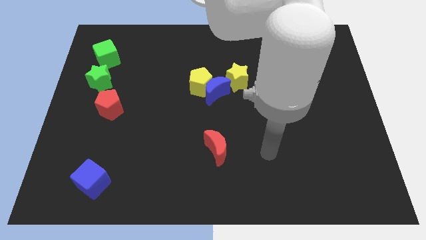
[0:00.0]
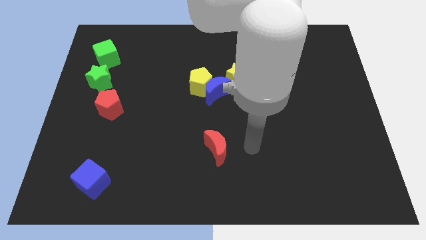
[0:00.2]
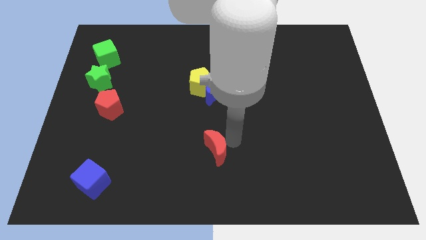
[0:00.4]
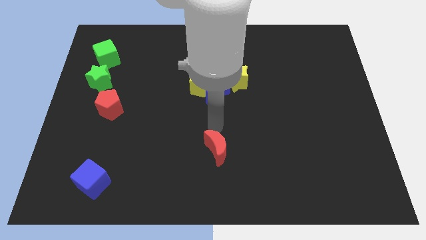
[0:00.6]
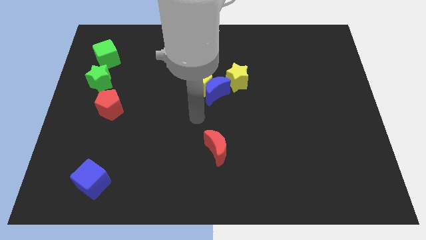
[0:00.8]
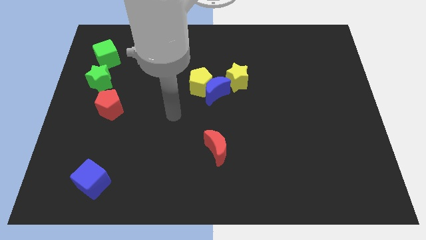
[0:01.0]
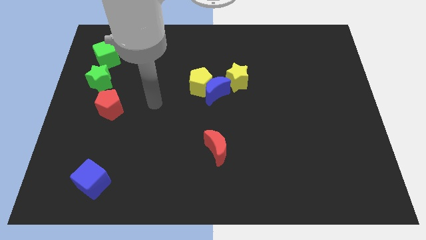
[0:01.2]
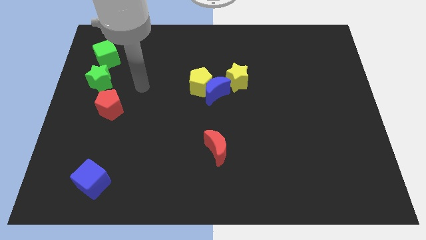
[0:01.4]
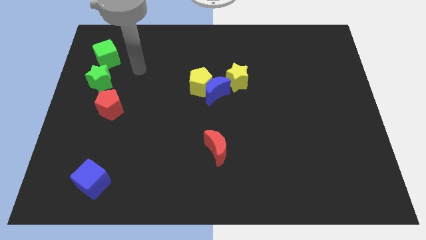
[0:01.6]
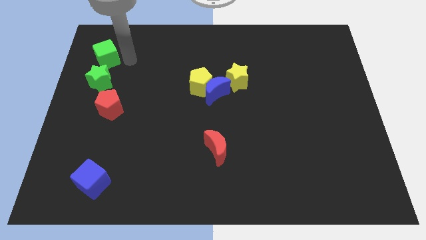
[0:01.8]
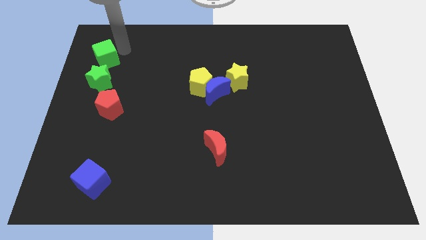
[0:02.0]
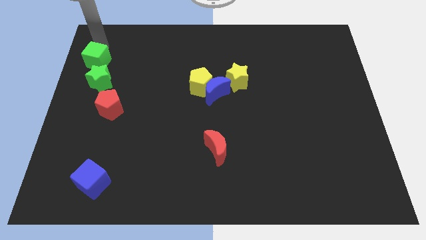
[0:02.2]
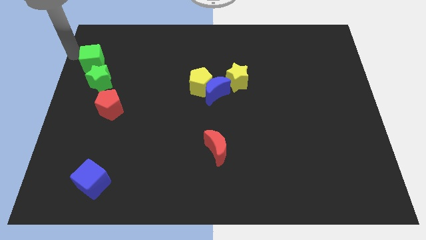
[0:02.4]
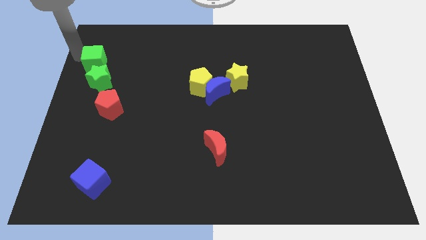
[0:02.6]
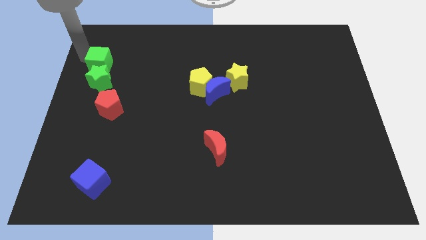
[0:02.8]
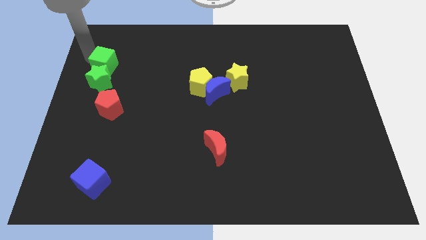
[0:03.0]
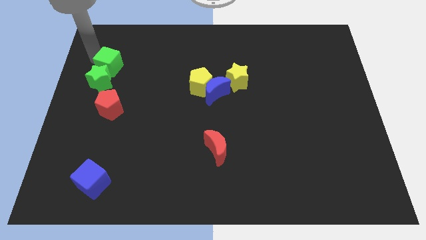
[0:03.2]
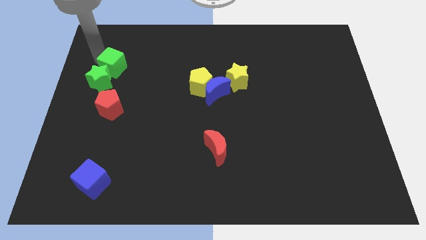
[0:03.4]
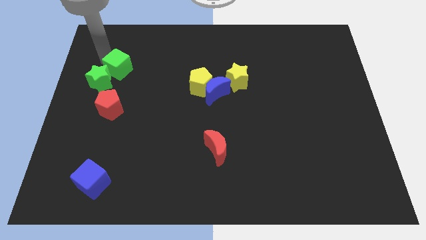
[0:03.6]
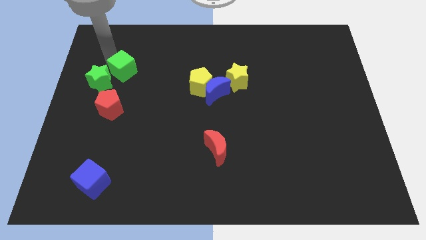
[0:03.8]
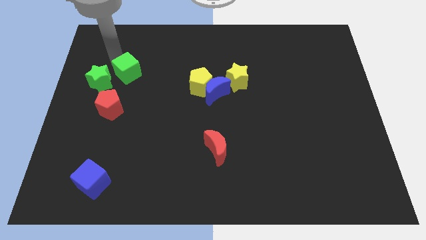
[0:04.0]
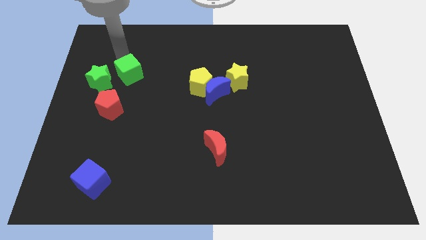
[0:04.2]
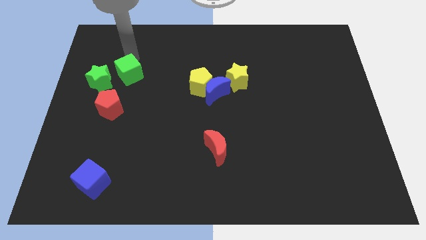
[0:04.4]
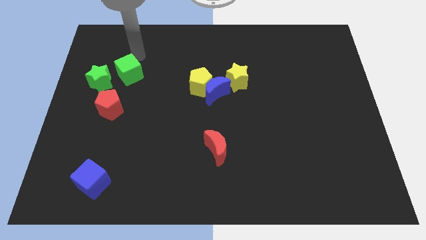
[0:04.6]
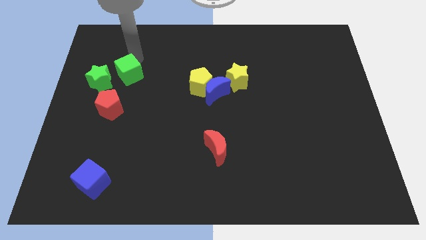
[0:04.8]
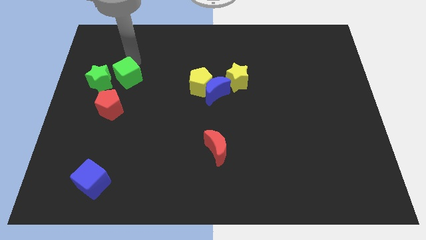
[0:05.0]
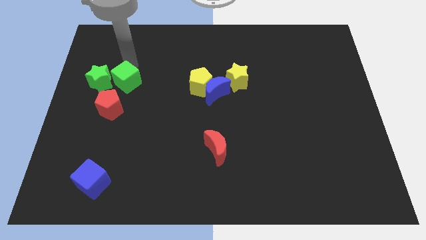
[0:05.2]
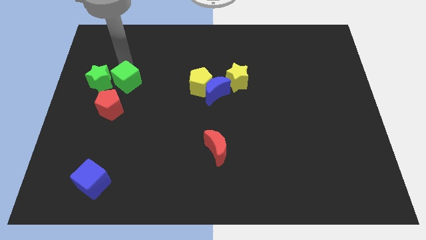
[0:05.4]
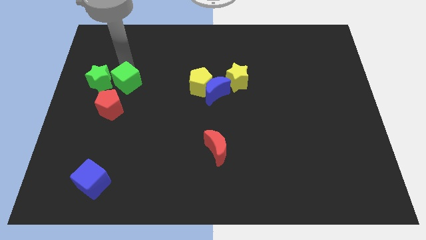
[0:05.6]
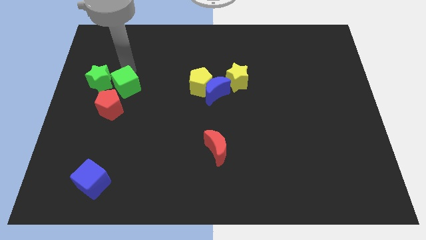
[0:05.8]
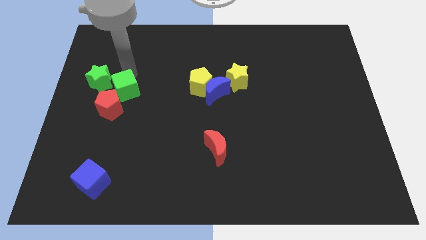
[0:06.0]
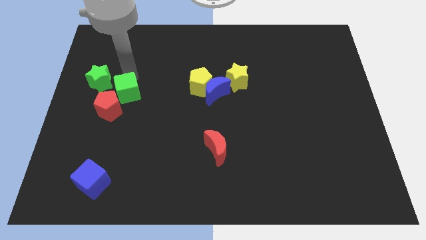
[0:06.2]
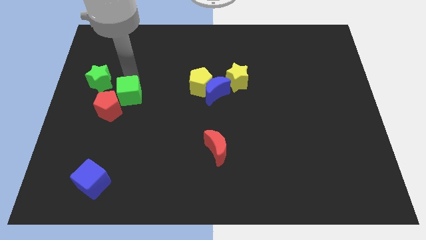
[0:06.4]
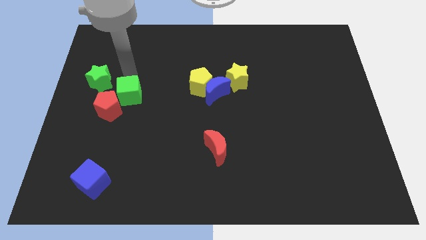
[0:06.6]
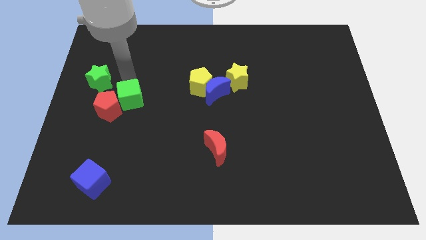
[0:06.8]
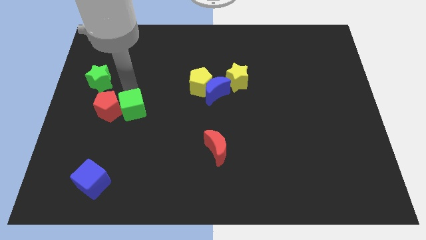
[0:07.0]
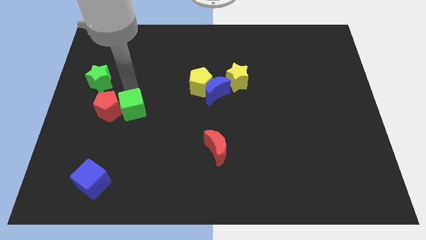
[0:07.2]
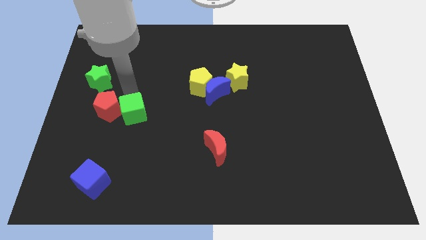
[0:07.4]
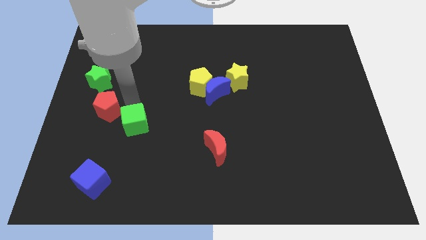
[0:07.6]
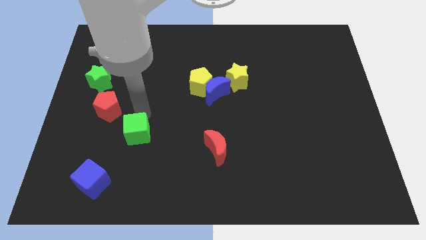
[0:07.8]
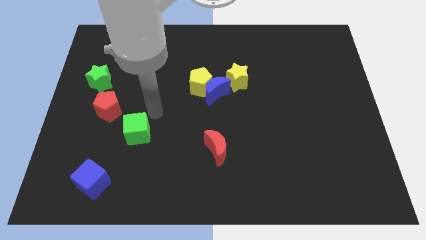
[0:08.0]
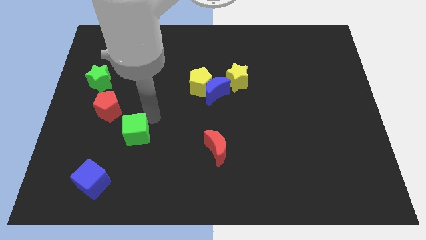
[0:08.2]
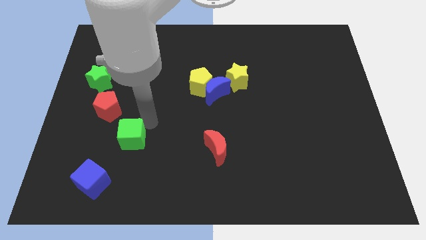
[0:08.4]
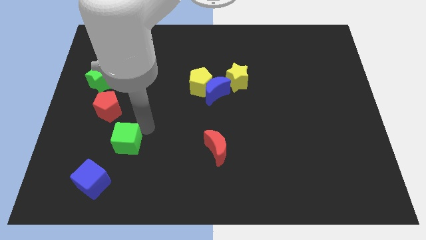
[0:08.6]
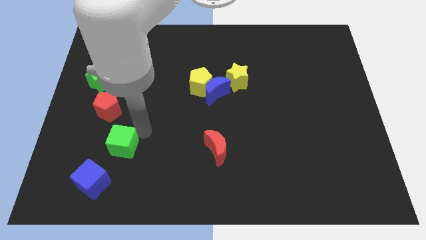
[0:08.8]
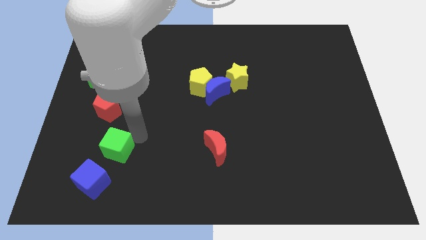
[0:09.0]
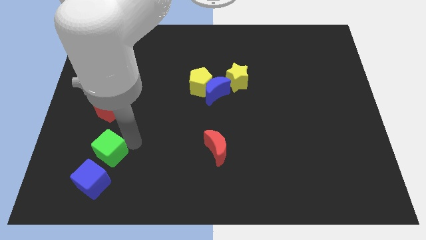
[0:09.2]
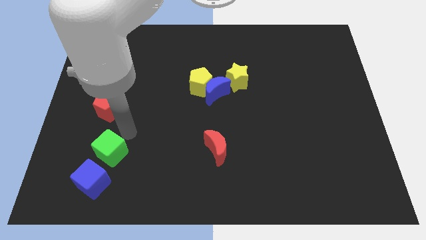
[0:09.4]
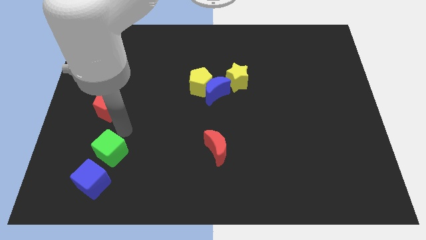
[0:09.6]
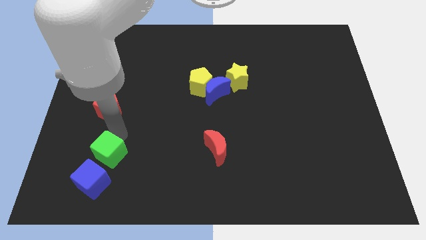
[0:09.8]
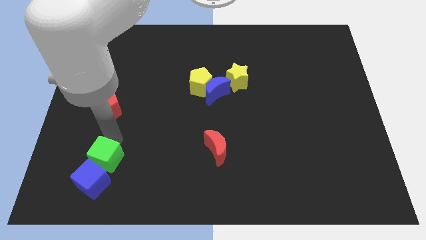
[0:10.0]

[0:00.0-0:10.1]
move the green cube next to the blue cube

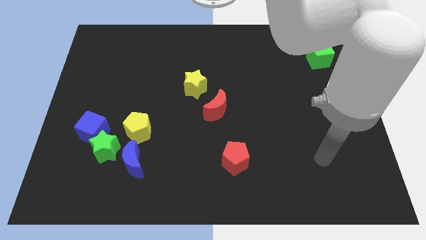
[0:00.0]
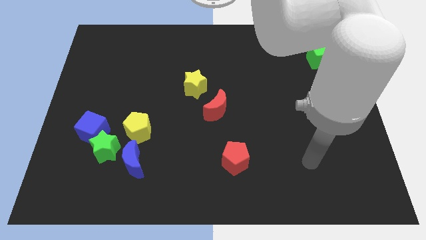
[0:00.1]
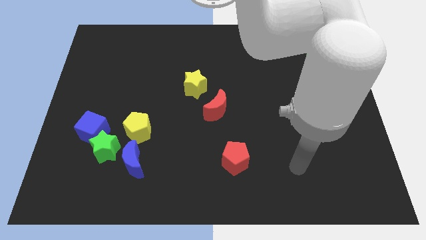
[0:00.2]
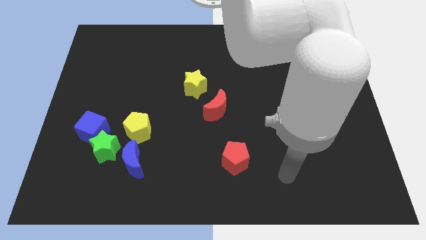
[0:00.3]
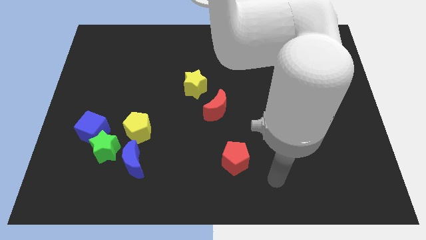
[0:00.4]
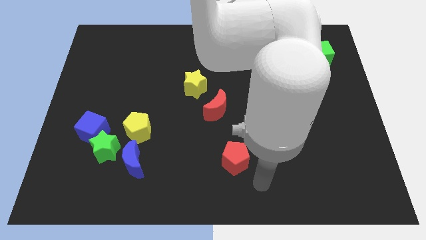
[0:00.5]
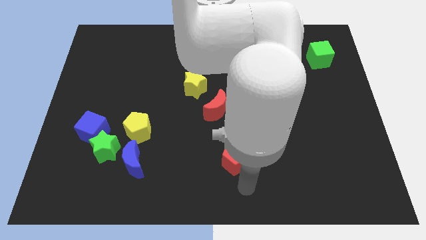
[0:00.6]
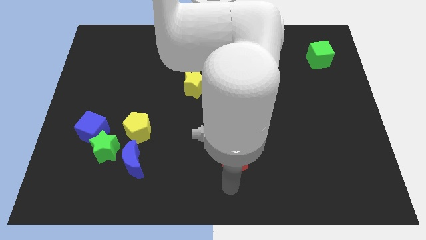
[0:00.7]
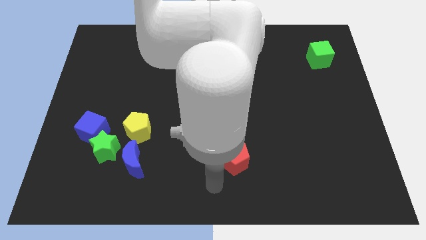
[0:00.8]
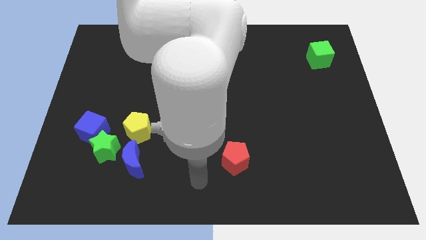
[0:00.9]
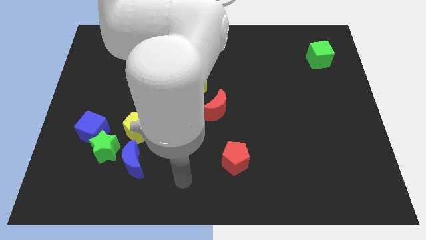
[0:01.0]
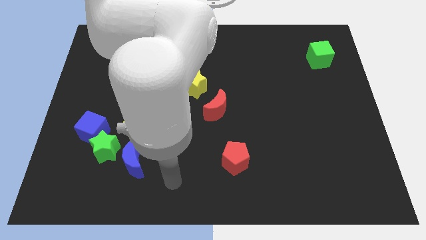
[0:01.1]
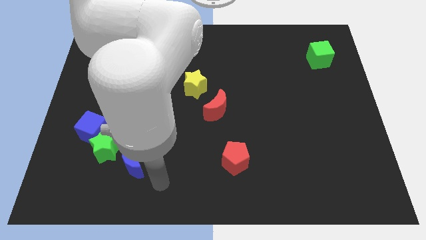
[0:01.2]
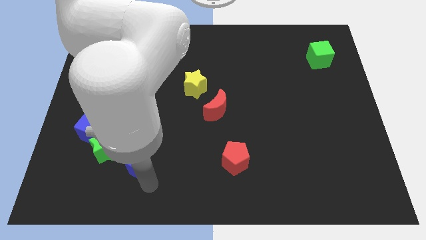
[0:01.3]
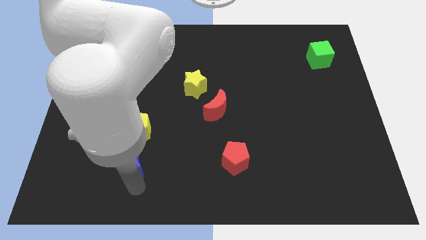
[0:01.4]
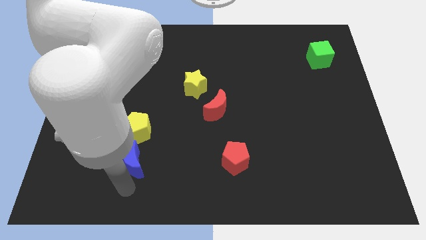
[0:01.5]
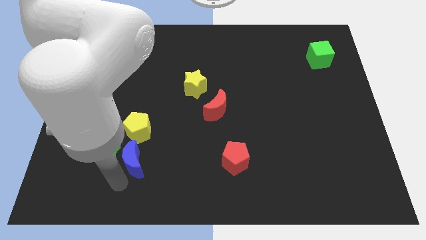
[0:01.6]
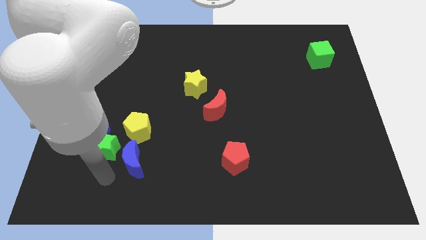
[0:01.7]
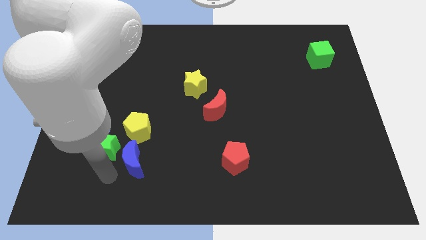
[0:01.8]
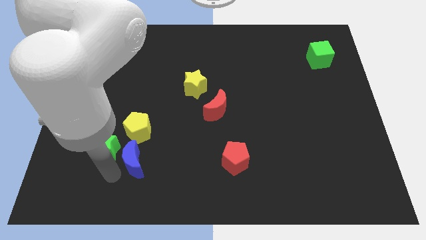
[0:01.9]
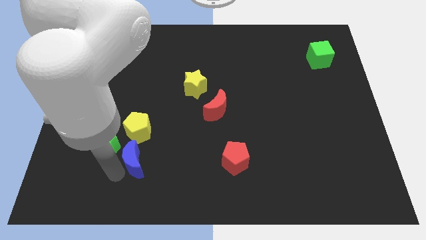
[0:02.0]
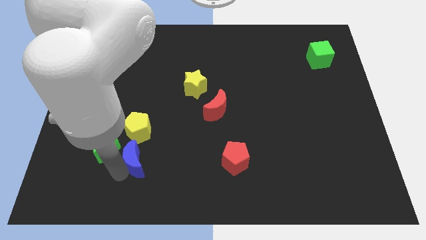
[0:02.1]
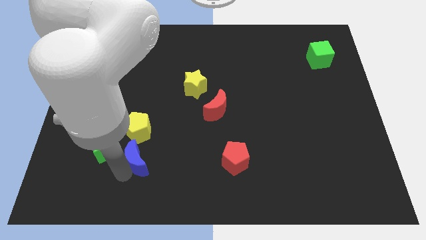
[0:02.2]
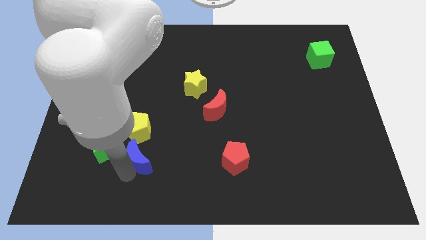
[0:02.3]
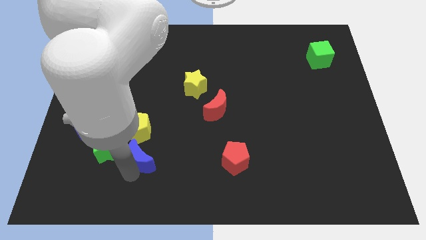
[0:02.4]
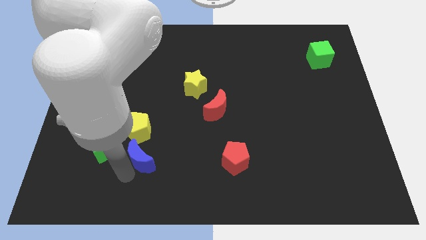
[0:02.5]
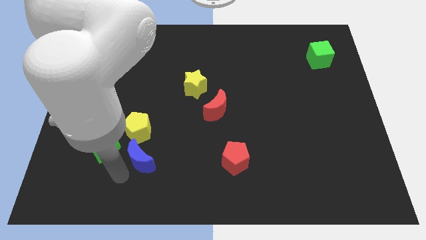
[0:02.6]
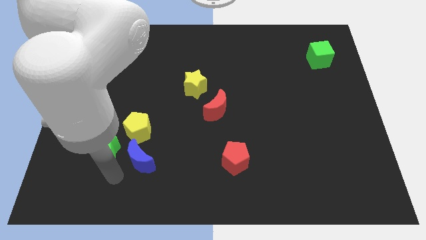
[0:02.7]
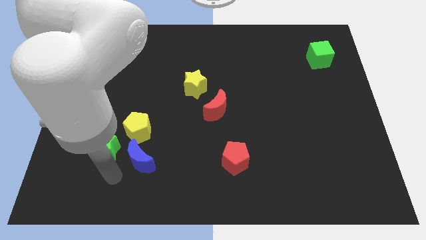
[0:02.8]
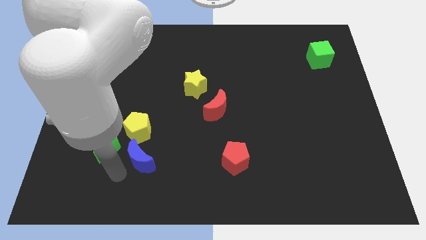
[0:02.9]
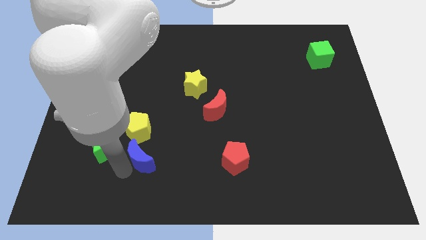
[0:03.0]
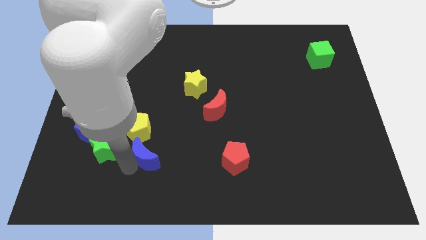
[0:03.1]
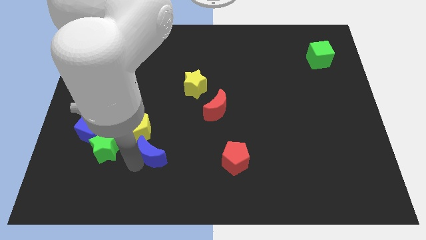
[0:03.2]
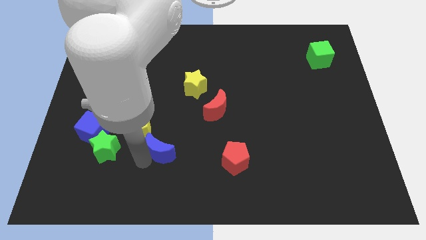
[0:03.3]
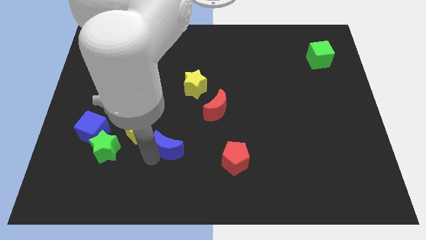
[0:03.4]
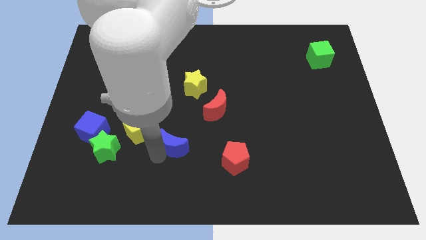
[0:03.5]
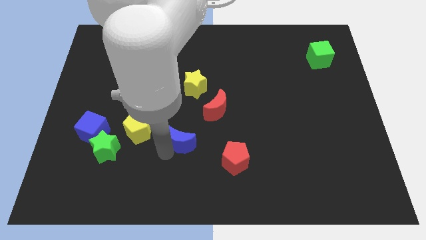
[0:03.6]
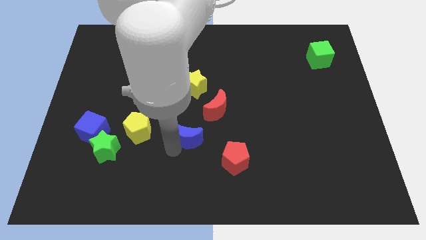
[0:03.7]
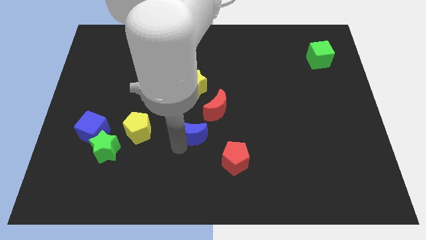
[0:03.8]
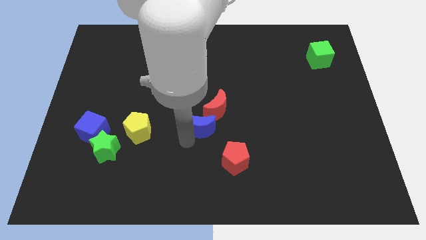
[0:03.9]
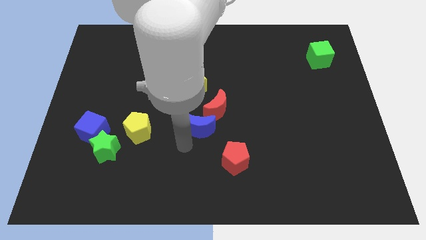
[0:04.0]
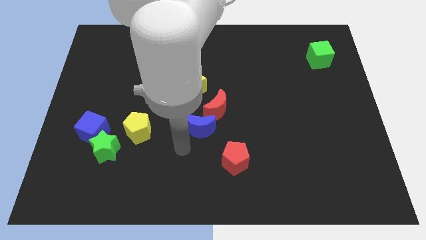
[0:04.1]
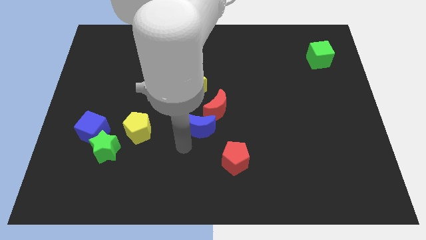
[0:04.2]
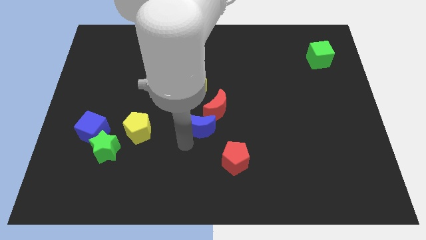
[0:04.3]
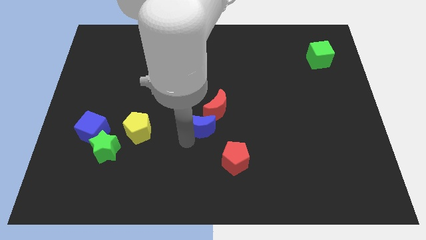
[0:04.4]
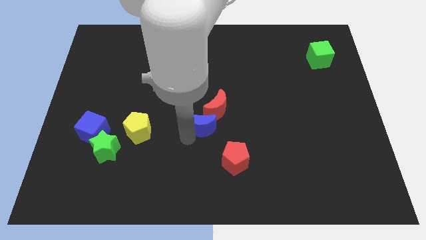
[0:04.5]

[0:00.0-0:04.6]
move the blue moon towards the red moon
